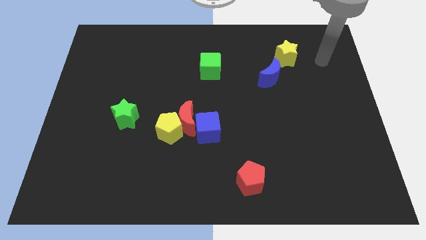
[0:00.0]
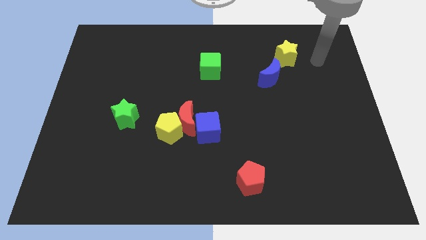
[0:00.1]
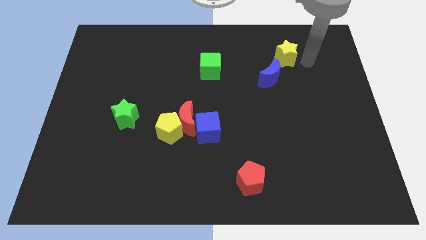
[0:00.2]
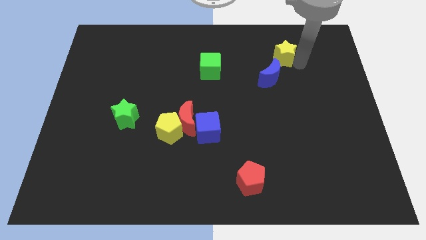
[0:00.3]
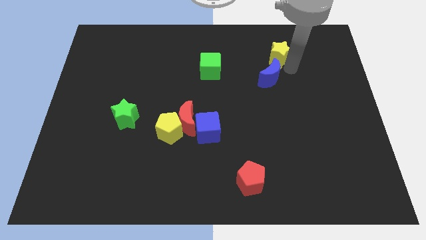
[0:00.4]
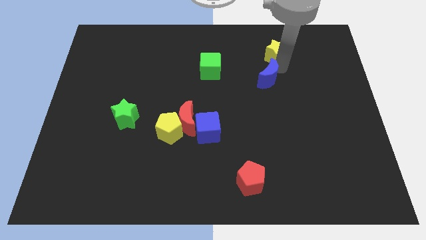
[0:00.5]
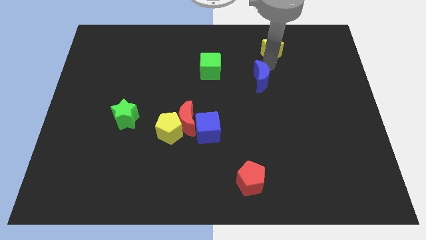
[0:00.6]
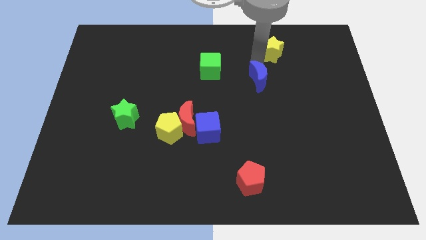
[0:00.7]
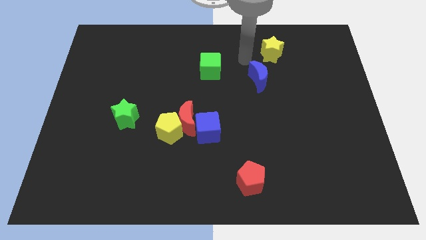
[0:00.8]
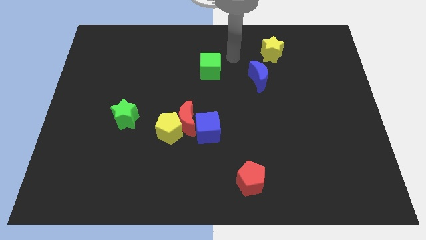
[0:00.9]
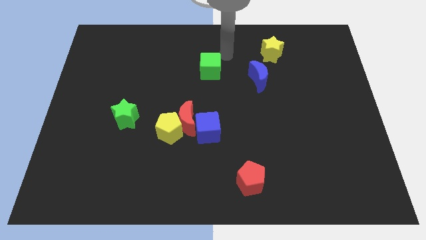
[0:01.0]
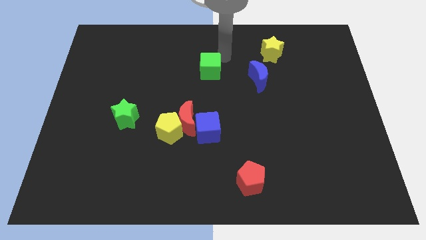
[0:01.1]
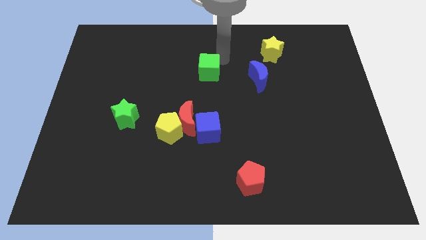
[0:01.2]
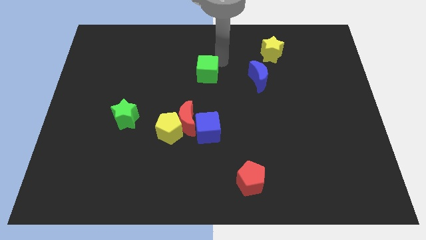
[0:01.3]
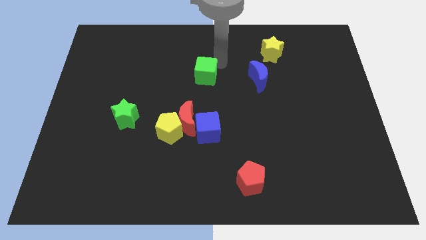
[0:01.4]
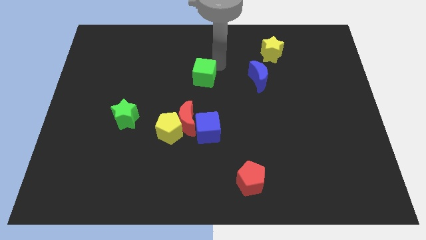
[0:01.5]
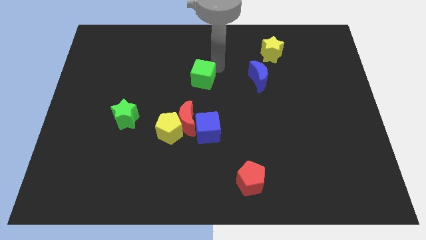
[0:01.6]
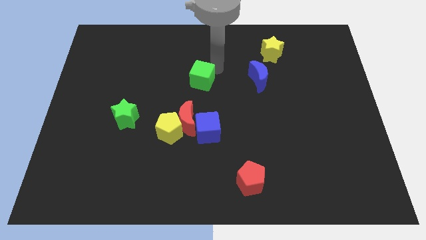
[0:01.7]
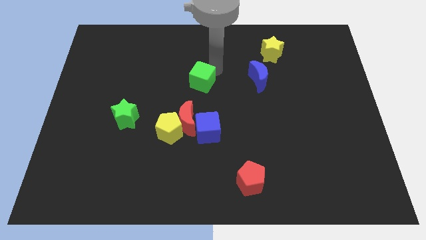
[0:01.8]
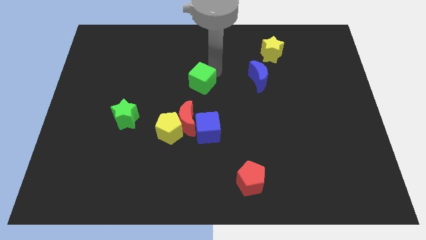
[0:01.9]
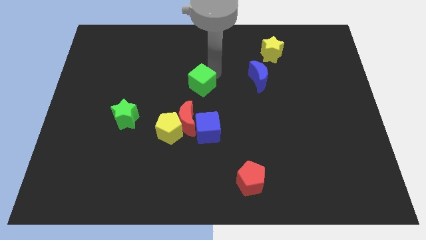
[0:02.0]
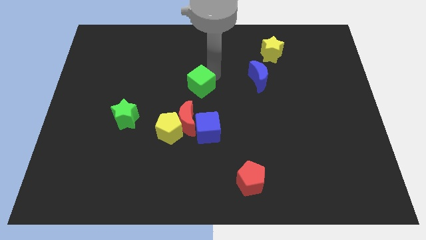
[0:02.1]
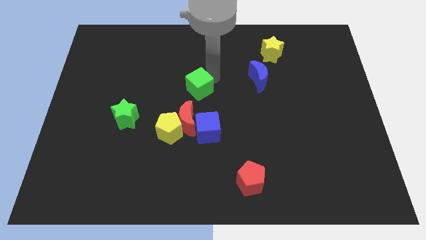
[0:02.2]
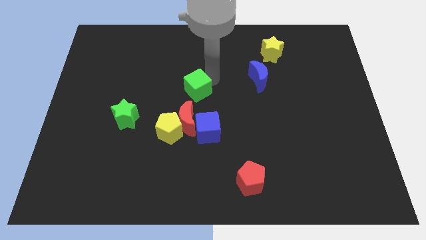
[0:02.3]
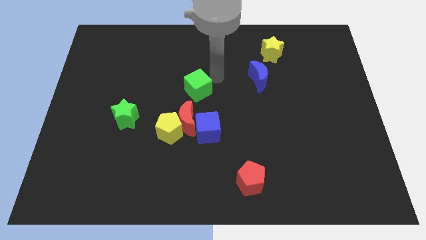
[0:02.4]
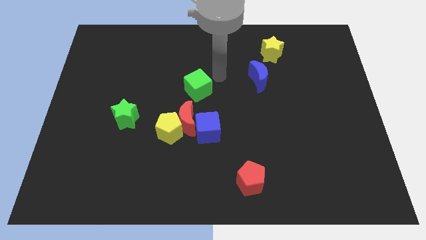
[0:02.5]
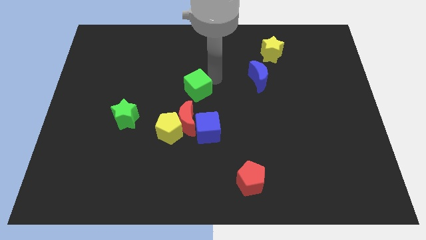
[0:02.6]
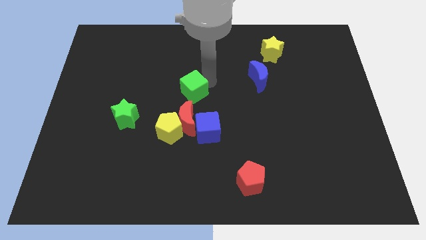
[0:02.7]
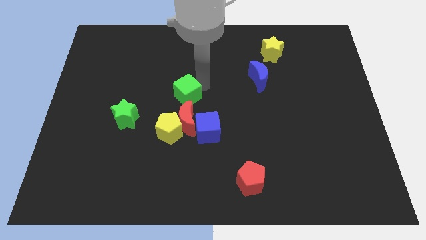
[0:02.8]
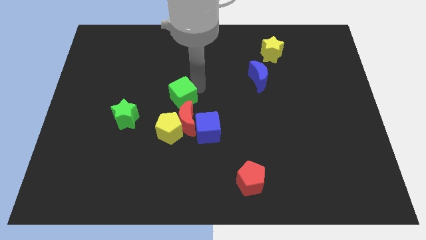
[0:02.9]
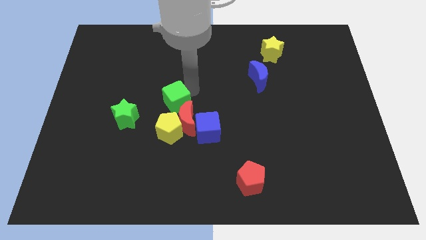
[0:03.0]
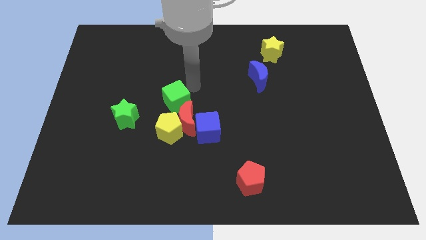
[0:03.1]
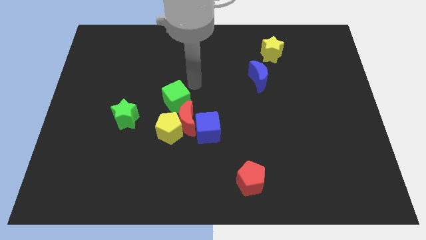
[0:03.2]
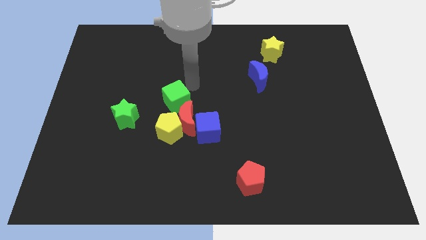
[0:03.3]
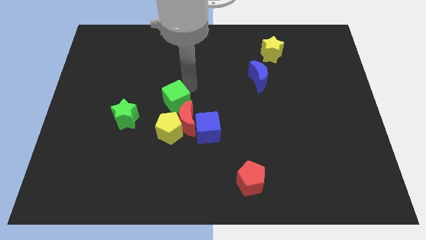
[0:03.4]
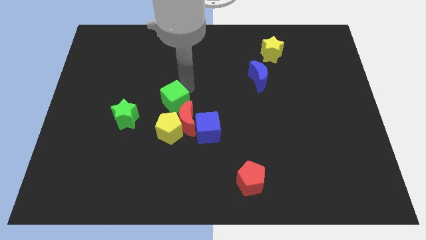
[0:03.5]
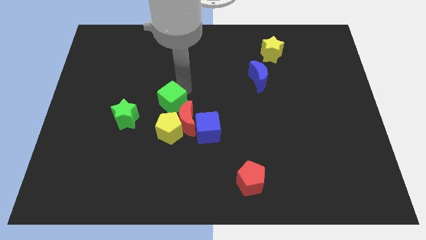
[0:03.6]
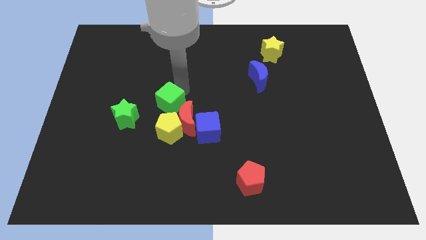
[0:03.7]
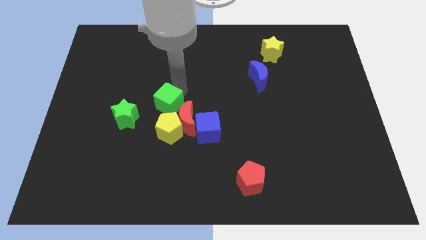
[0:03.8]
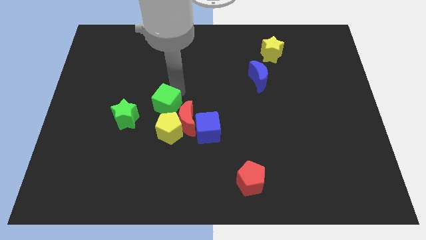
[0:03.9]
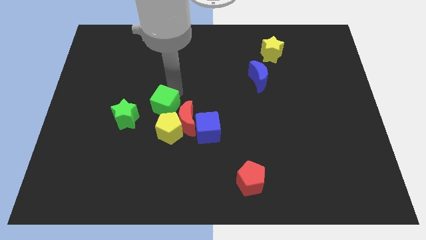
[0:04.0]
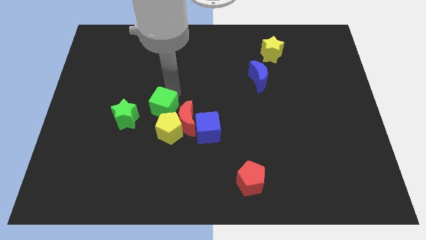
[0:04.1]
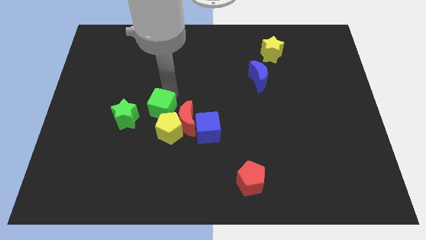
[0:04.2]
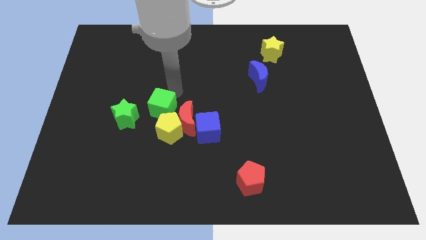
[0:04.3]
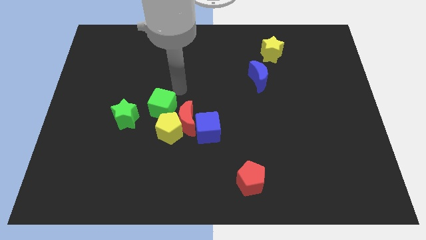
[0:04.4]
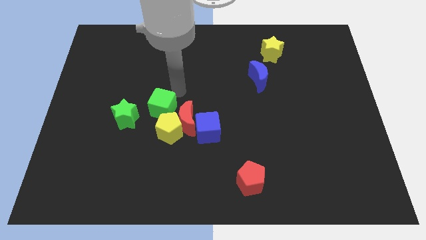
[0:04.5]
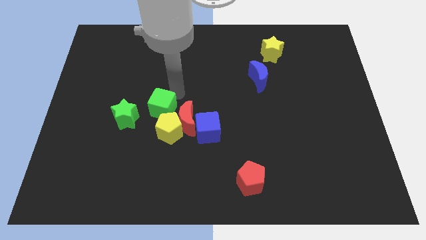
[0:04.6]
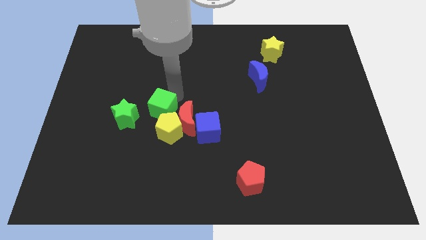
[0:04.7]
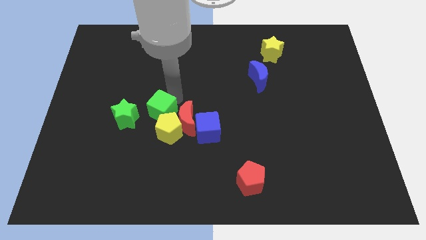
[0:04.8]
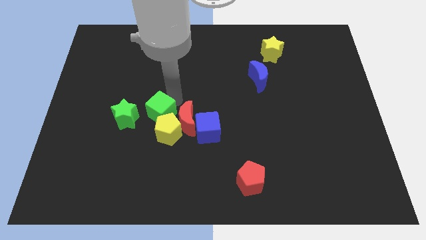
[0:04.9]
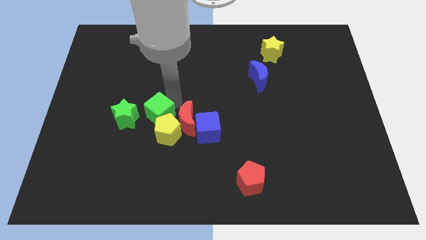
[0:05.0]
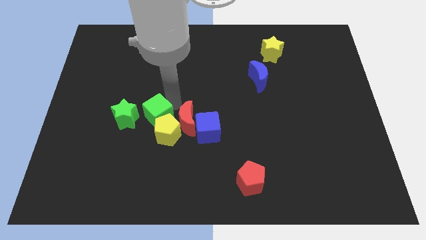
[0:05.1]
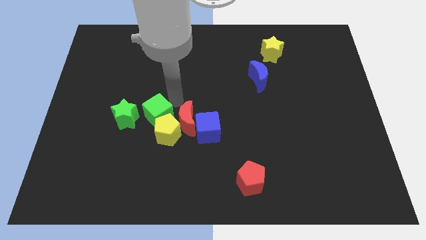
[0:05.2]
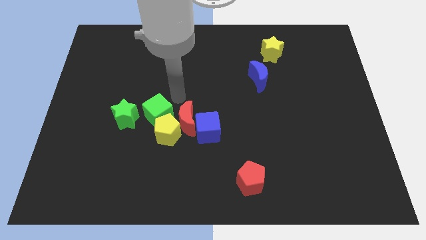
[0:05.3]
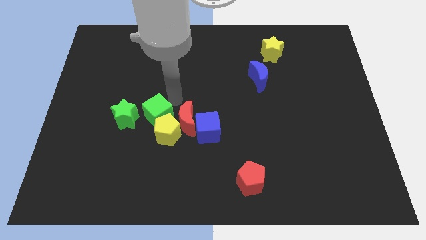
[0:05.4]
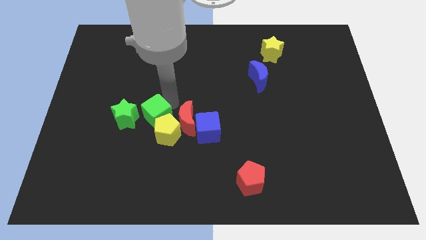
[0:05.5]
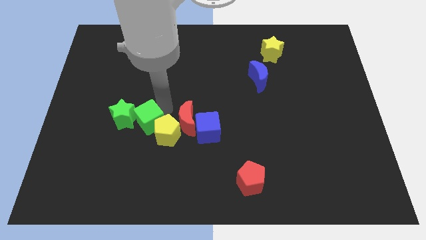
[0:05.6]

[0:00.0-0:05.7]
move the green cube down and to the left diagonally

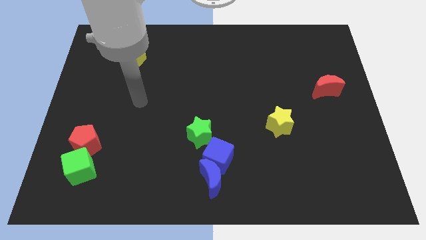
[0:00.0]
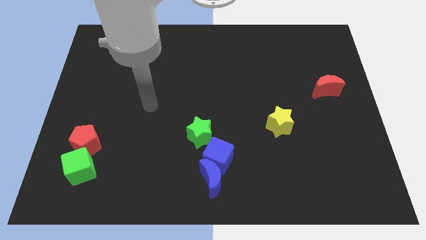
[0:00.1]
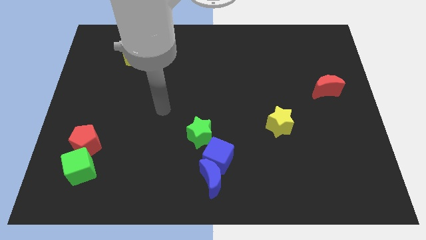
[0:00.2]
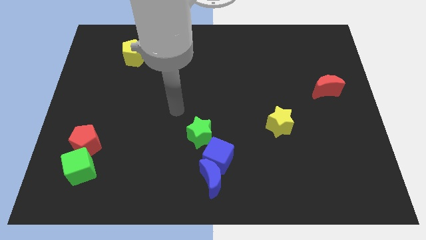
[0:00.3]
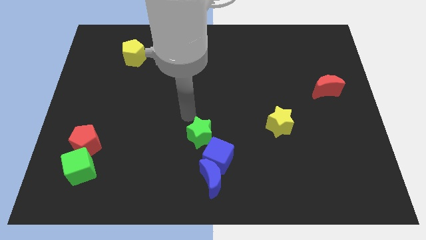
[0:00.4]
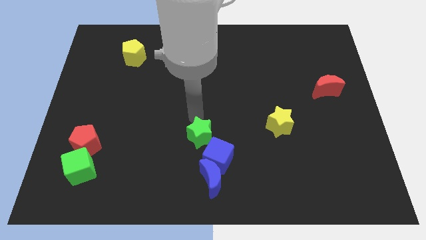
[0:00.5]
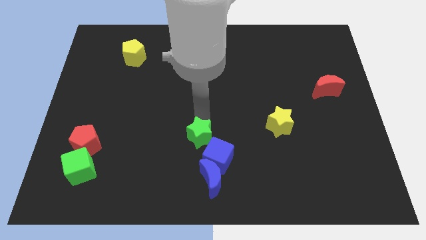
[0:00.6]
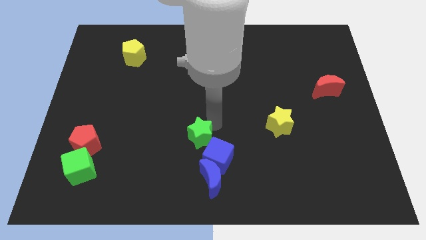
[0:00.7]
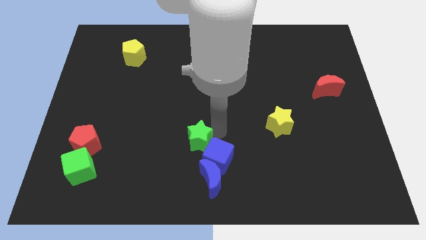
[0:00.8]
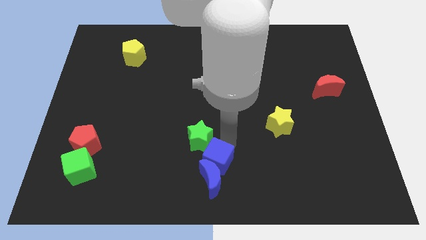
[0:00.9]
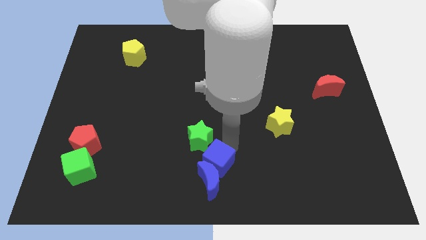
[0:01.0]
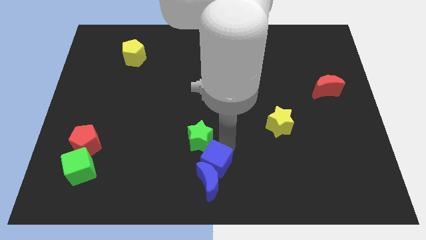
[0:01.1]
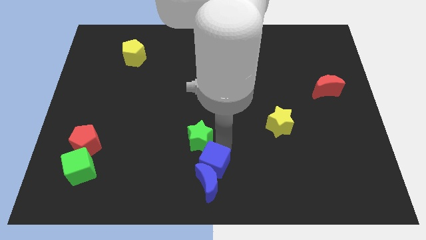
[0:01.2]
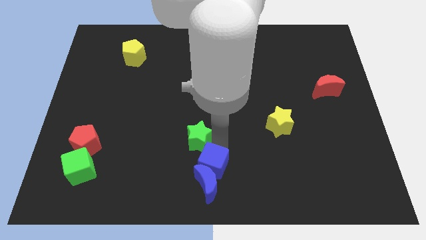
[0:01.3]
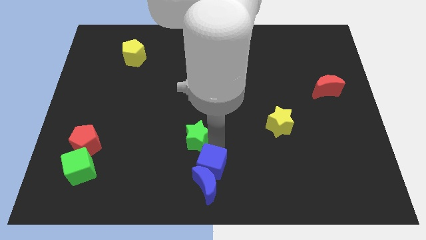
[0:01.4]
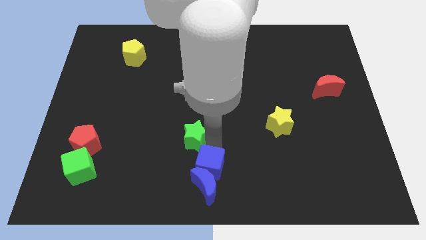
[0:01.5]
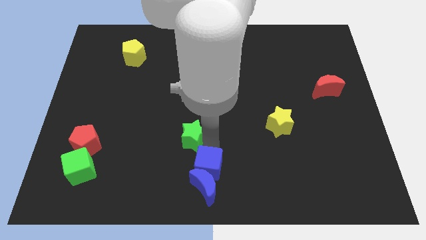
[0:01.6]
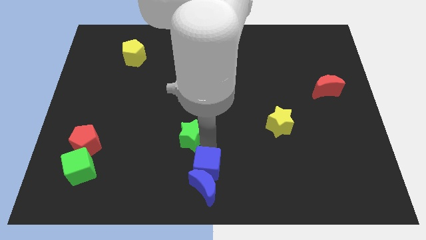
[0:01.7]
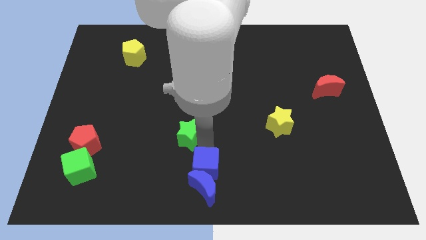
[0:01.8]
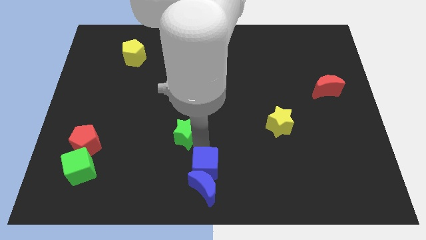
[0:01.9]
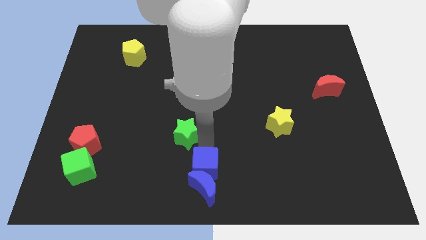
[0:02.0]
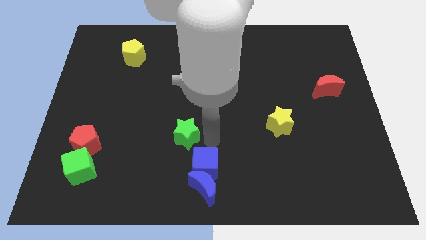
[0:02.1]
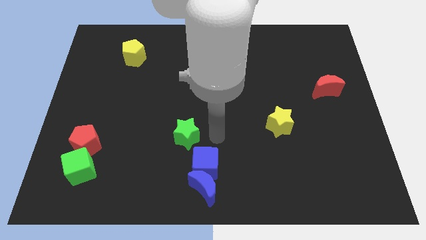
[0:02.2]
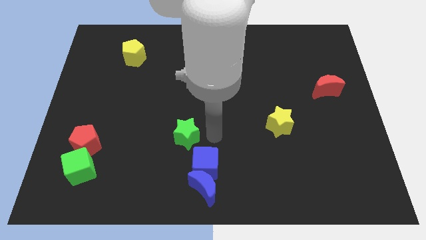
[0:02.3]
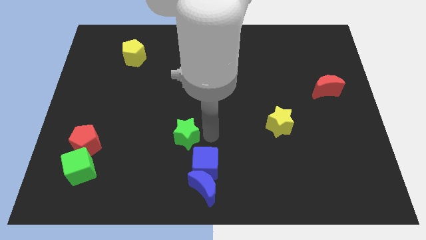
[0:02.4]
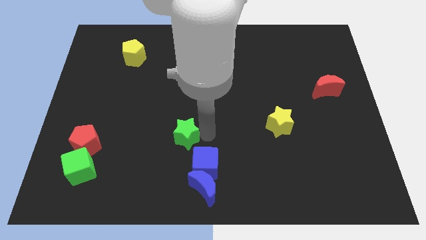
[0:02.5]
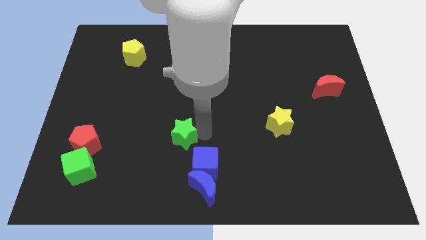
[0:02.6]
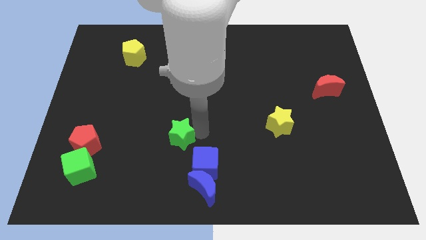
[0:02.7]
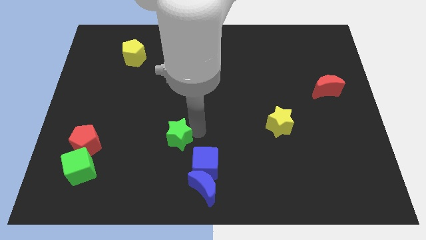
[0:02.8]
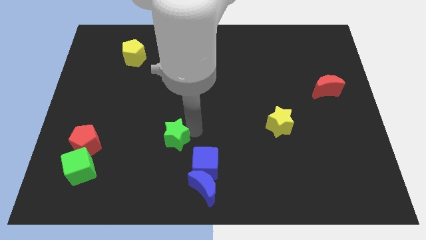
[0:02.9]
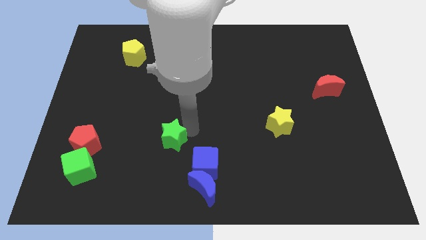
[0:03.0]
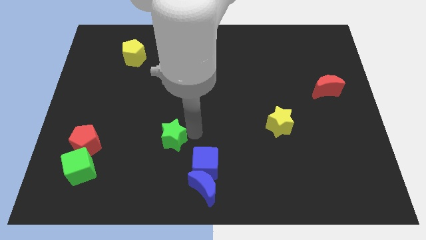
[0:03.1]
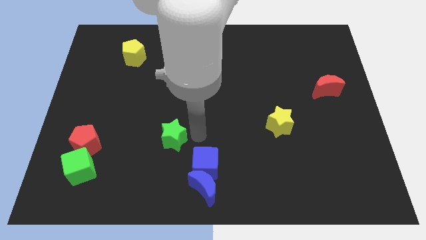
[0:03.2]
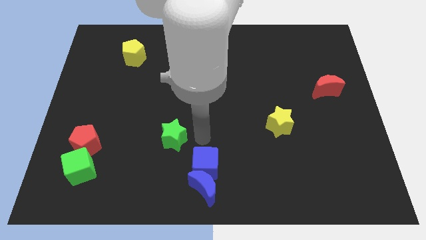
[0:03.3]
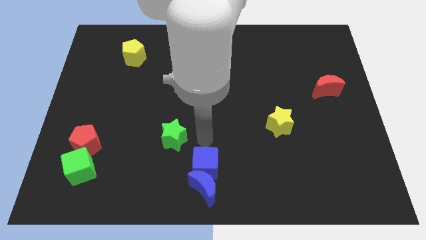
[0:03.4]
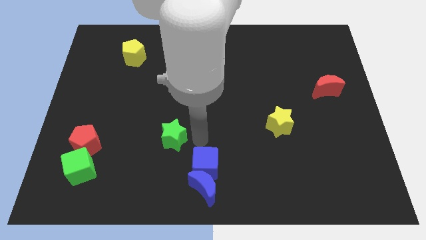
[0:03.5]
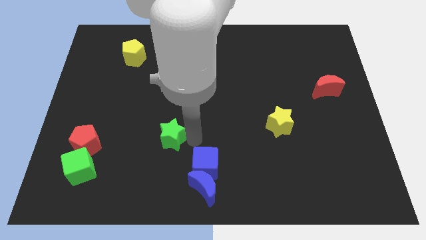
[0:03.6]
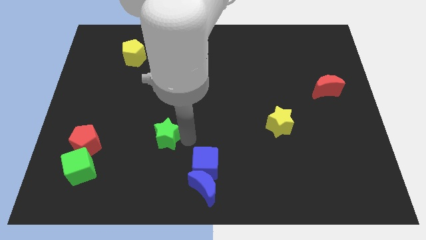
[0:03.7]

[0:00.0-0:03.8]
move the green star to the left slightly
